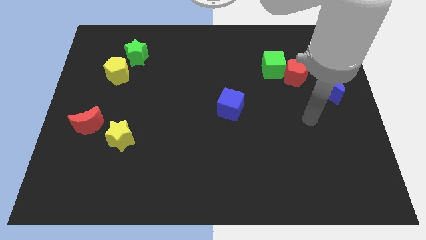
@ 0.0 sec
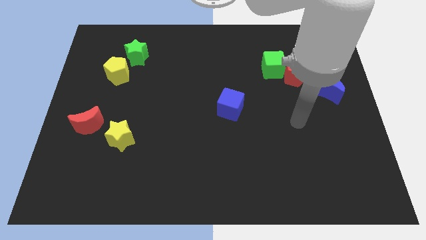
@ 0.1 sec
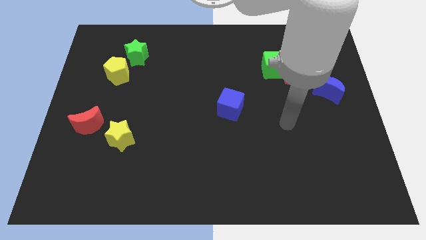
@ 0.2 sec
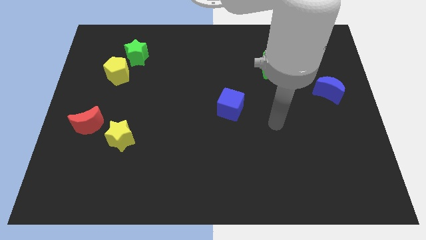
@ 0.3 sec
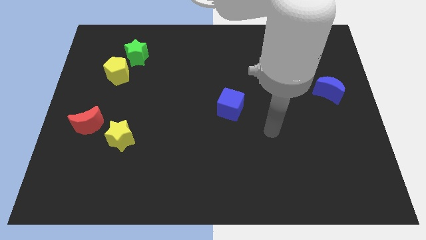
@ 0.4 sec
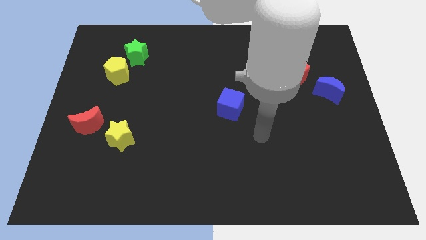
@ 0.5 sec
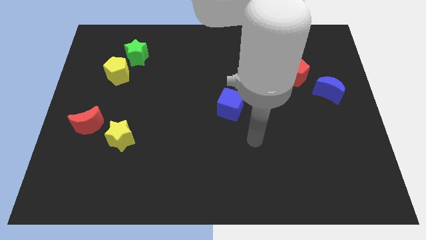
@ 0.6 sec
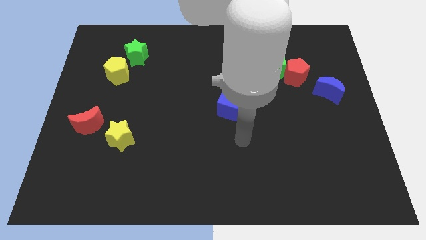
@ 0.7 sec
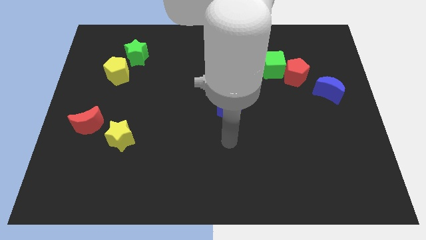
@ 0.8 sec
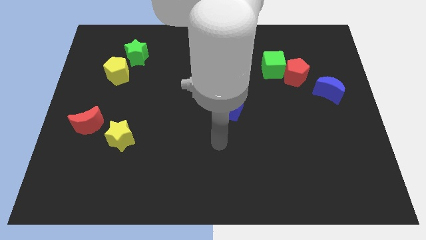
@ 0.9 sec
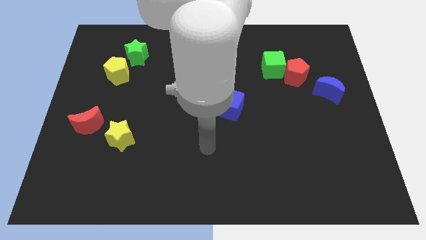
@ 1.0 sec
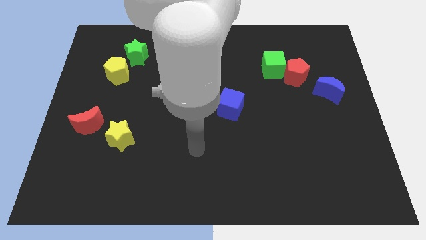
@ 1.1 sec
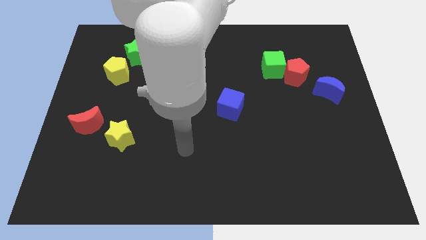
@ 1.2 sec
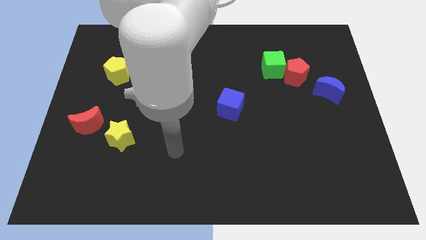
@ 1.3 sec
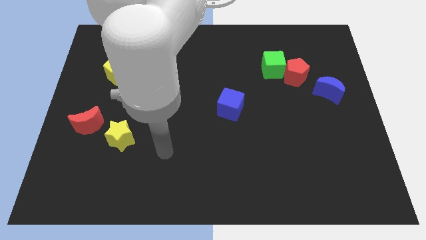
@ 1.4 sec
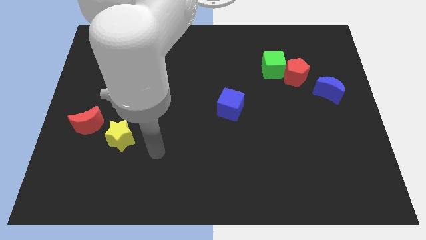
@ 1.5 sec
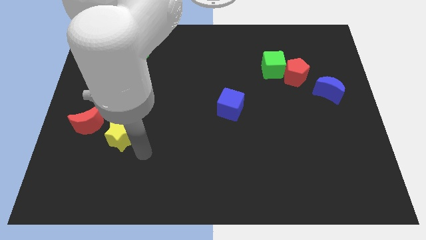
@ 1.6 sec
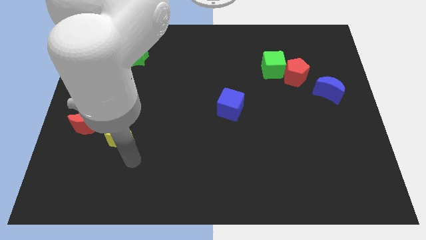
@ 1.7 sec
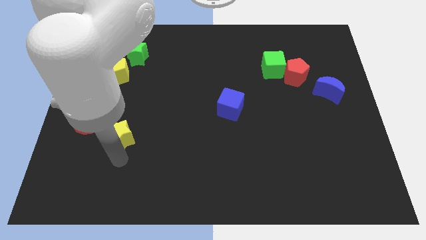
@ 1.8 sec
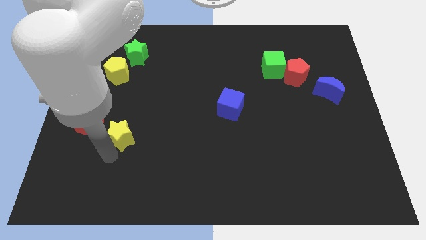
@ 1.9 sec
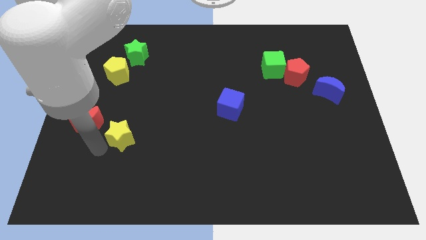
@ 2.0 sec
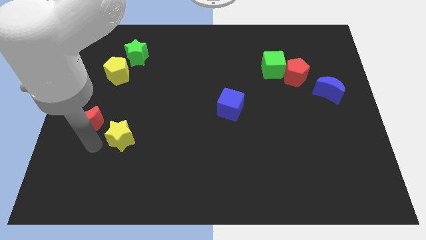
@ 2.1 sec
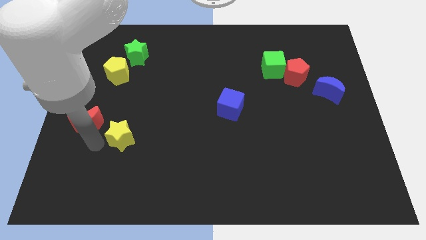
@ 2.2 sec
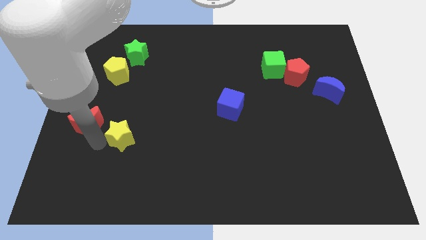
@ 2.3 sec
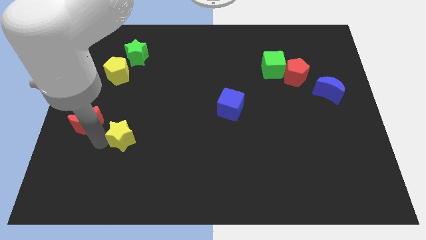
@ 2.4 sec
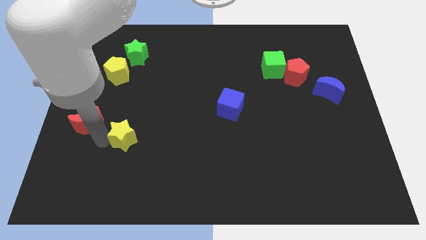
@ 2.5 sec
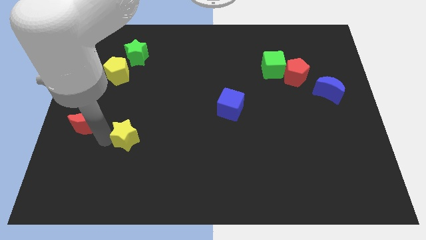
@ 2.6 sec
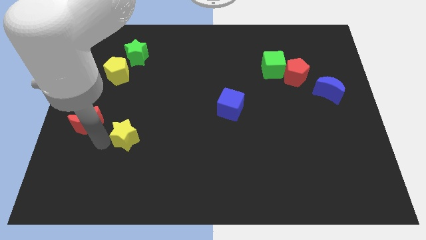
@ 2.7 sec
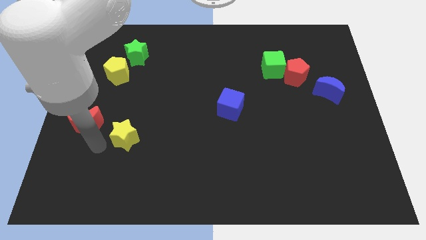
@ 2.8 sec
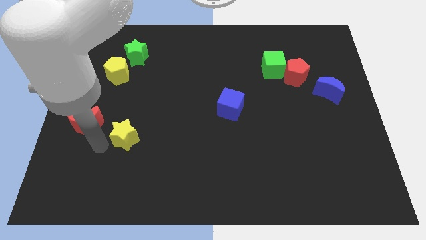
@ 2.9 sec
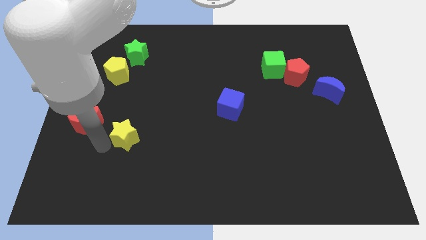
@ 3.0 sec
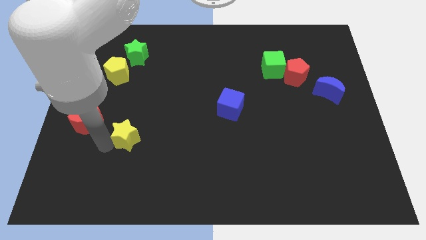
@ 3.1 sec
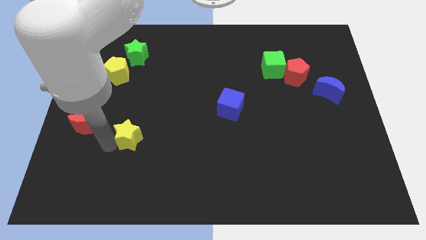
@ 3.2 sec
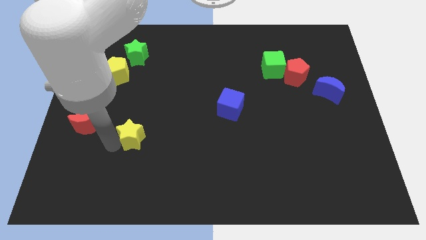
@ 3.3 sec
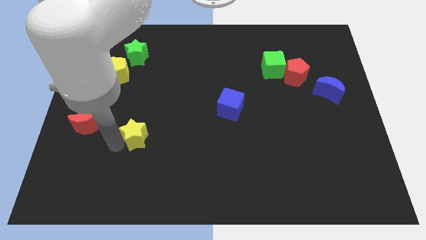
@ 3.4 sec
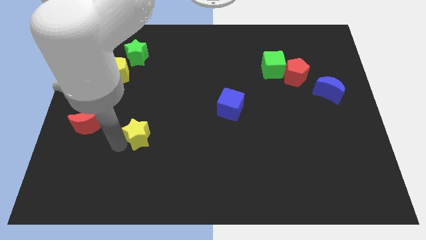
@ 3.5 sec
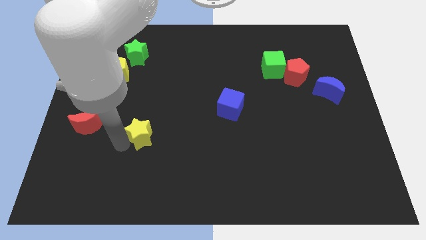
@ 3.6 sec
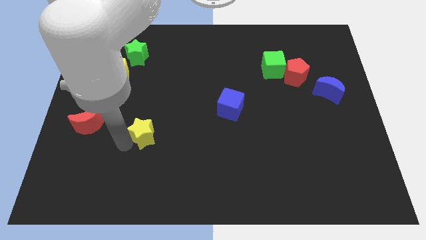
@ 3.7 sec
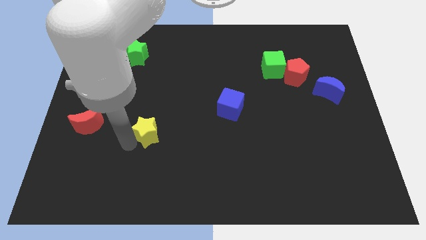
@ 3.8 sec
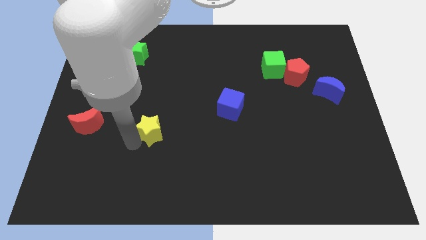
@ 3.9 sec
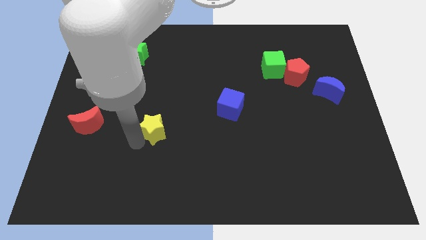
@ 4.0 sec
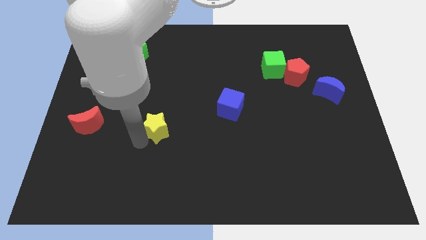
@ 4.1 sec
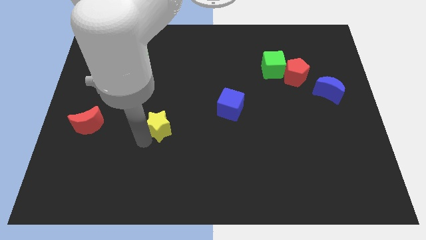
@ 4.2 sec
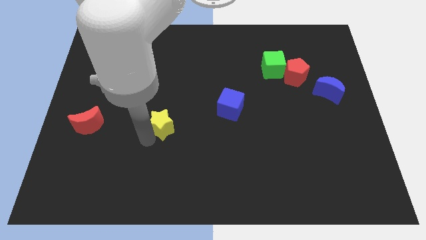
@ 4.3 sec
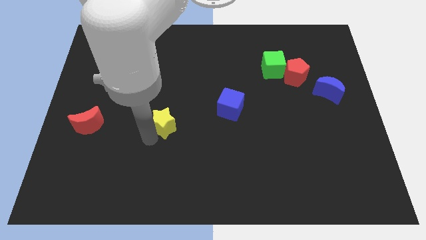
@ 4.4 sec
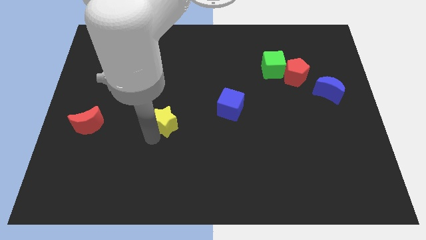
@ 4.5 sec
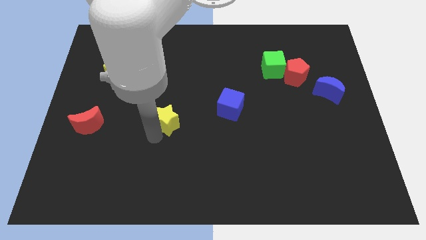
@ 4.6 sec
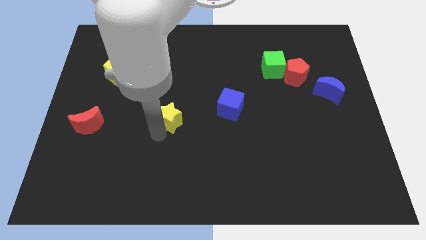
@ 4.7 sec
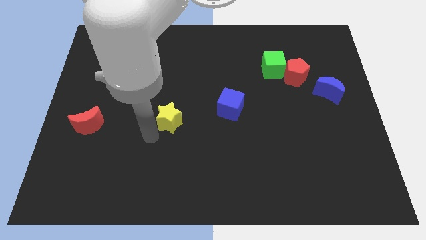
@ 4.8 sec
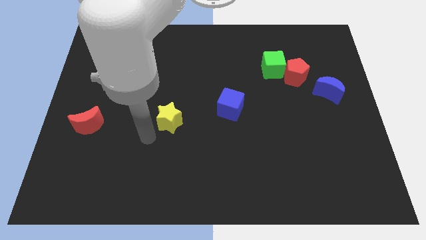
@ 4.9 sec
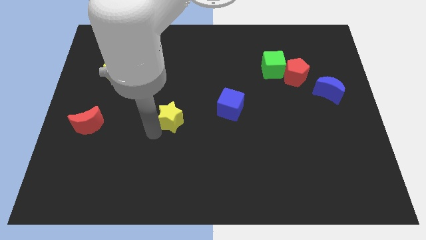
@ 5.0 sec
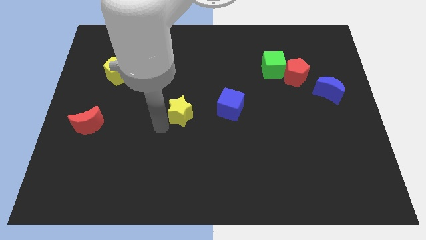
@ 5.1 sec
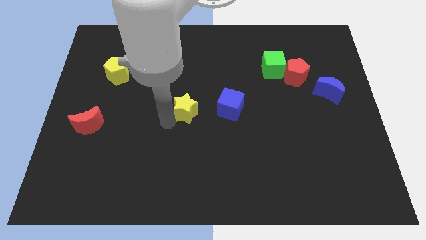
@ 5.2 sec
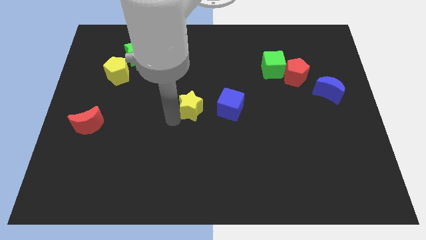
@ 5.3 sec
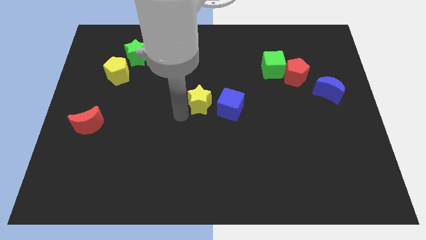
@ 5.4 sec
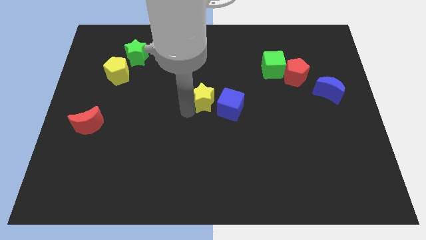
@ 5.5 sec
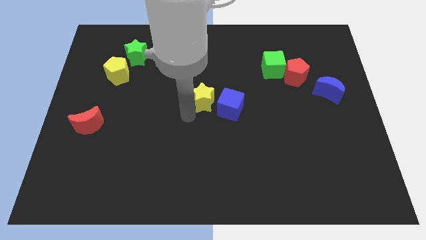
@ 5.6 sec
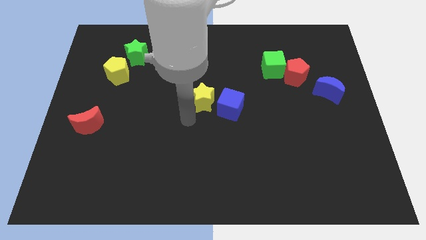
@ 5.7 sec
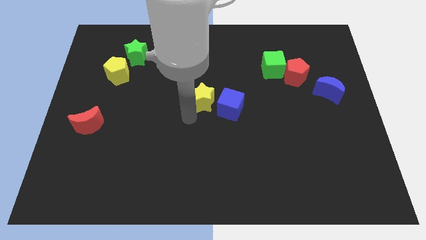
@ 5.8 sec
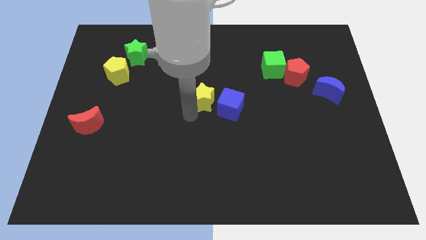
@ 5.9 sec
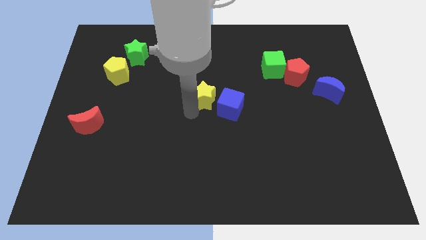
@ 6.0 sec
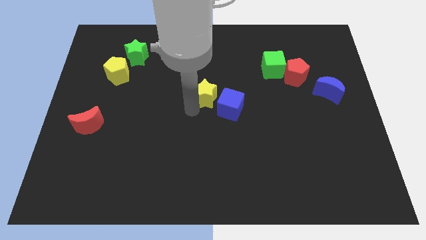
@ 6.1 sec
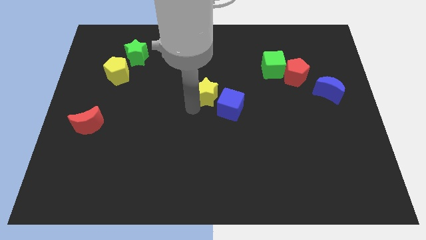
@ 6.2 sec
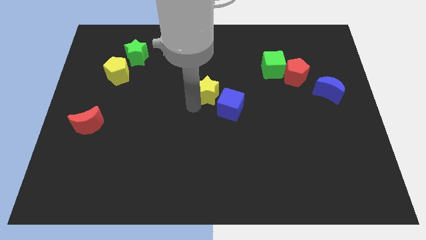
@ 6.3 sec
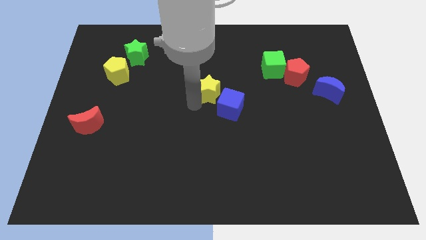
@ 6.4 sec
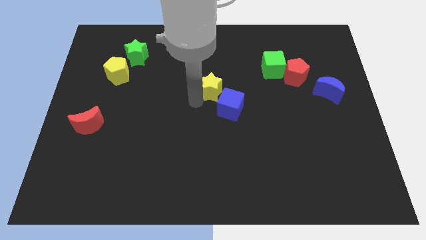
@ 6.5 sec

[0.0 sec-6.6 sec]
slide the yellow star above the blue cube
